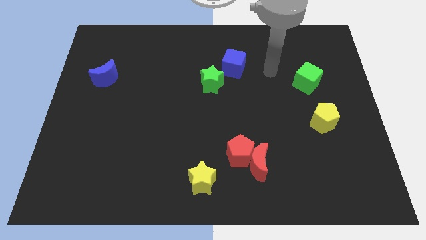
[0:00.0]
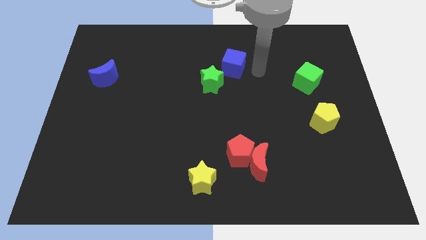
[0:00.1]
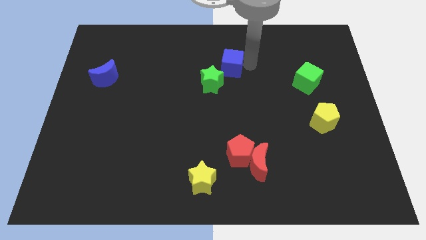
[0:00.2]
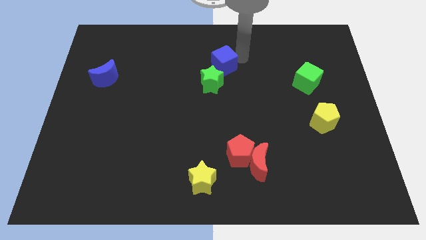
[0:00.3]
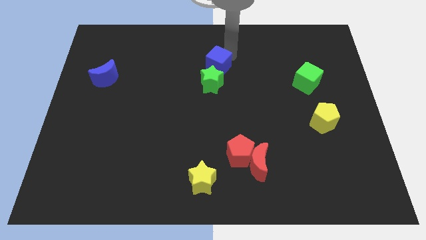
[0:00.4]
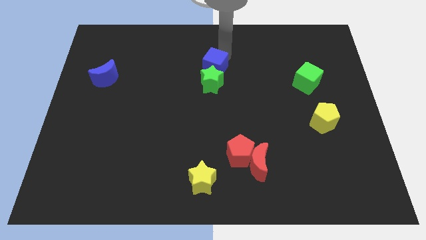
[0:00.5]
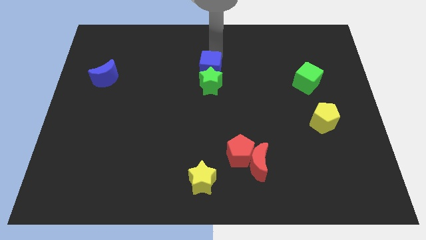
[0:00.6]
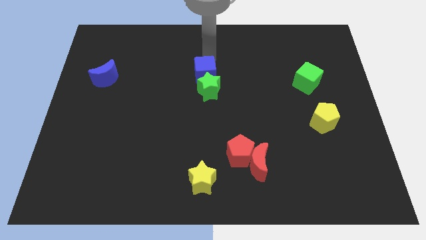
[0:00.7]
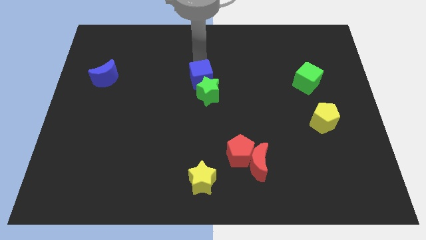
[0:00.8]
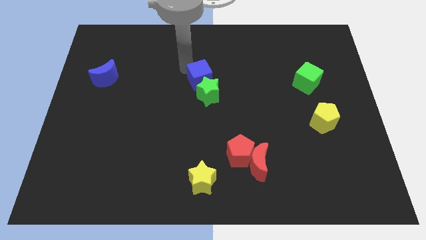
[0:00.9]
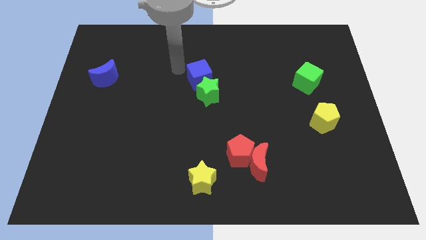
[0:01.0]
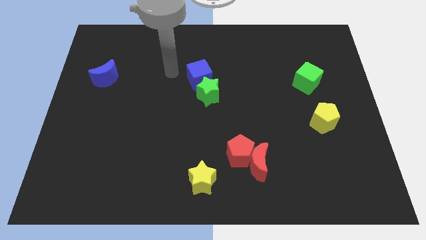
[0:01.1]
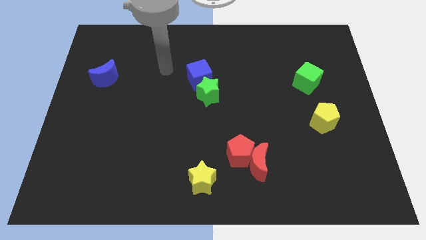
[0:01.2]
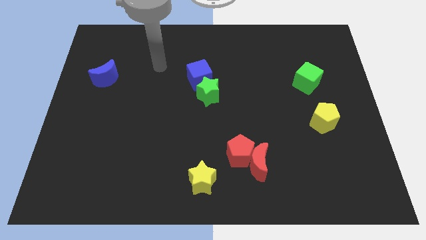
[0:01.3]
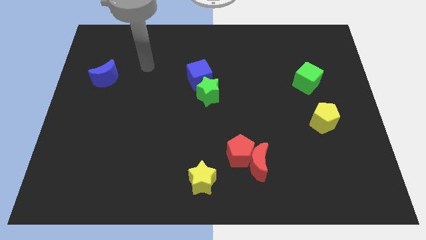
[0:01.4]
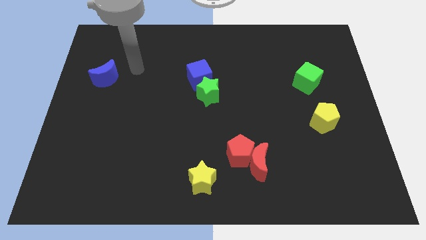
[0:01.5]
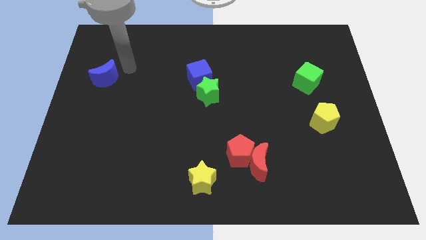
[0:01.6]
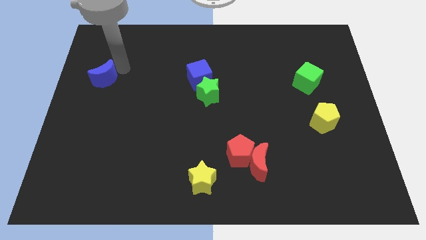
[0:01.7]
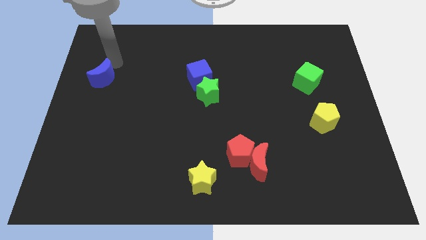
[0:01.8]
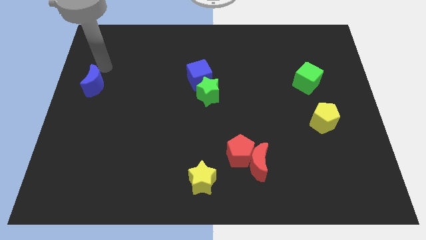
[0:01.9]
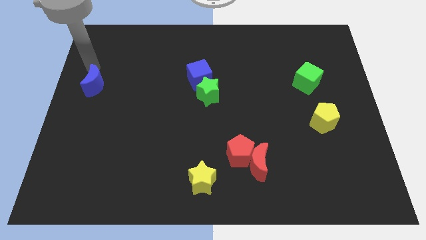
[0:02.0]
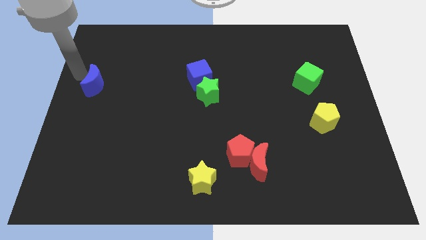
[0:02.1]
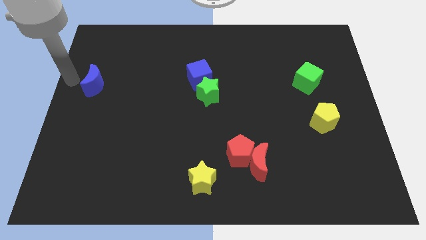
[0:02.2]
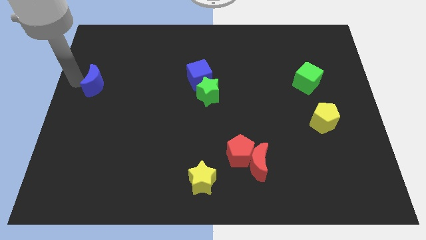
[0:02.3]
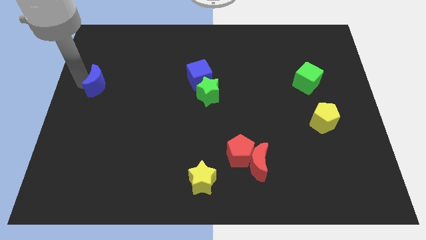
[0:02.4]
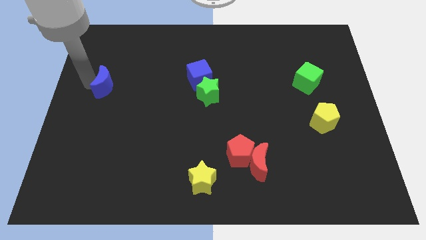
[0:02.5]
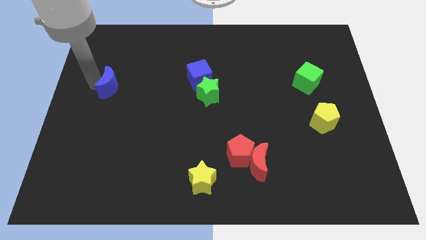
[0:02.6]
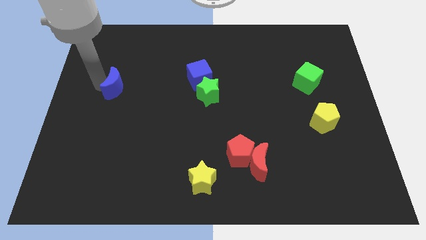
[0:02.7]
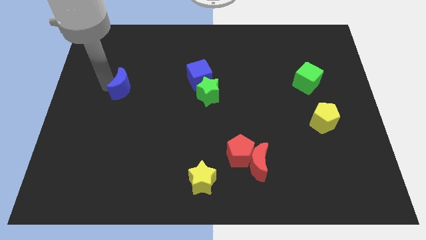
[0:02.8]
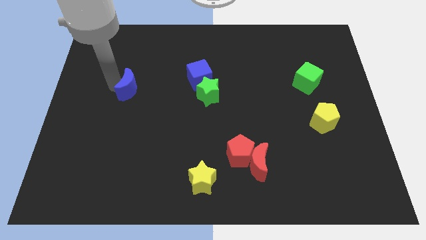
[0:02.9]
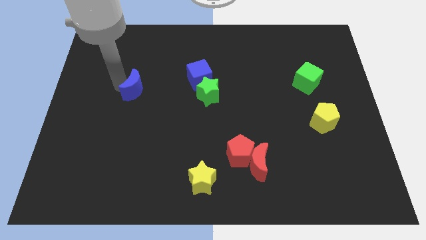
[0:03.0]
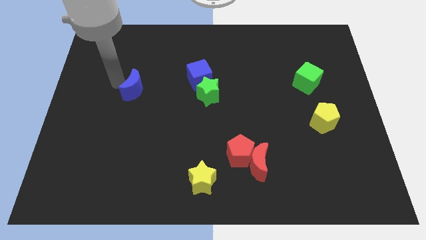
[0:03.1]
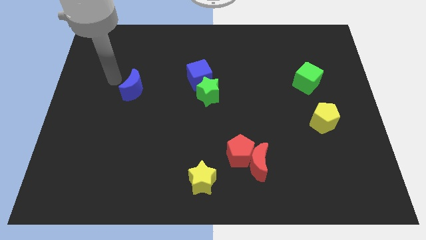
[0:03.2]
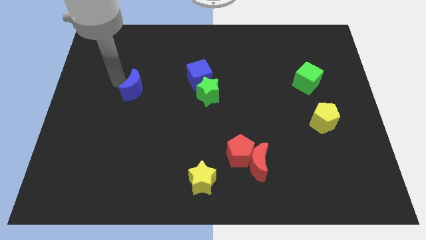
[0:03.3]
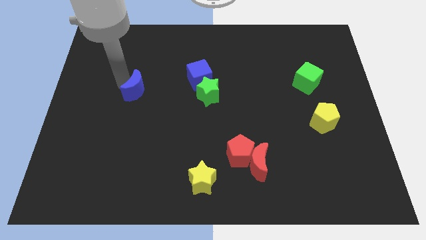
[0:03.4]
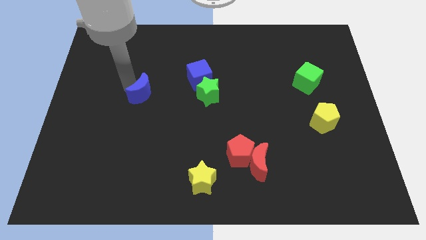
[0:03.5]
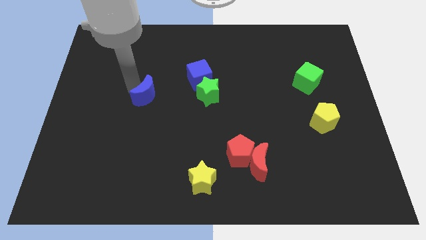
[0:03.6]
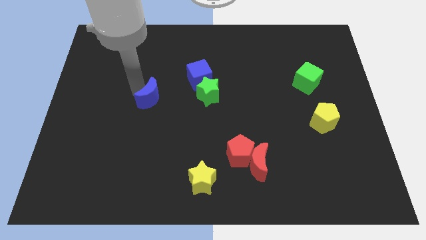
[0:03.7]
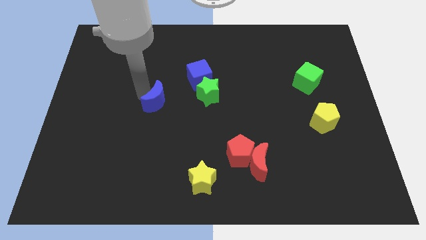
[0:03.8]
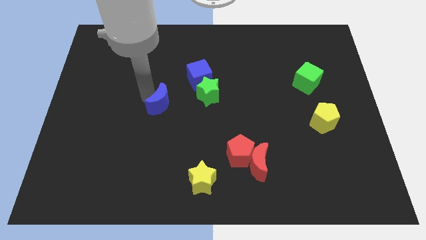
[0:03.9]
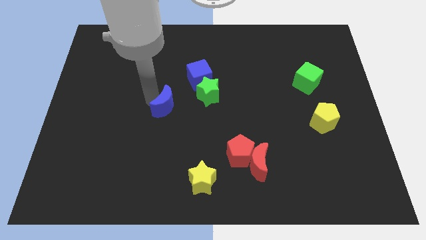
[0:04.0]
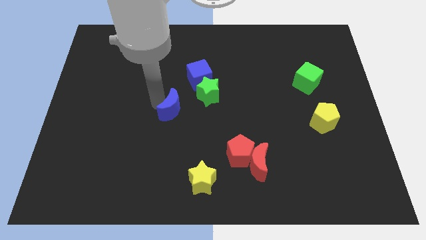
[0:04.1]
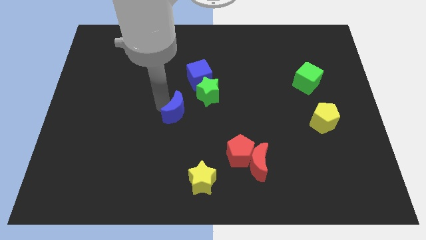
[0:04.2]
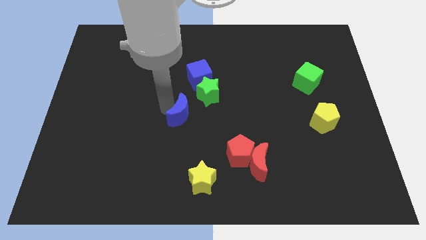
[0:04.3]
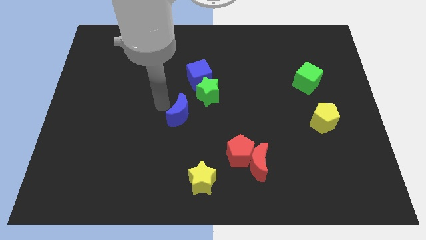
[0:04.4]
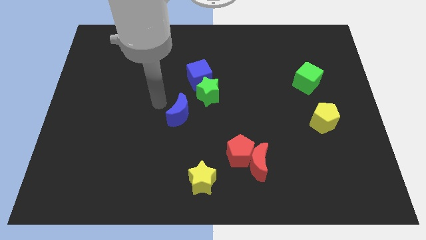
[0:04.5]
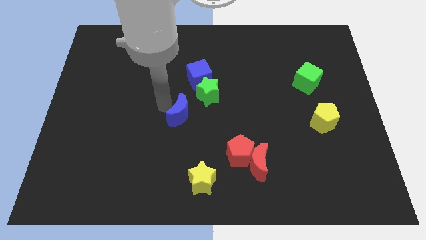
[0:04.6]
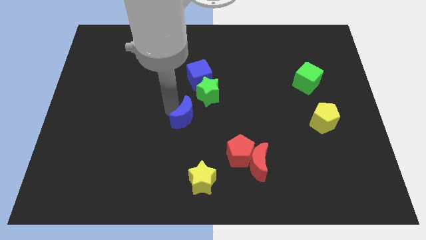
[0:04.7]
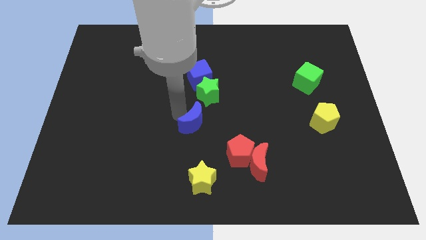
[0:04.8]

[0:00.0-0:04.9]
put the blue moon to the top left of the red pentagon

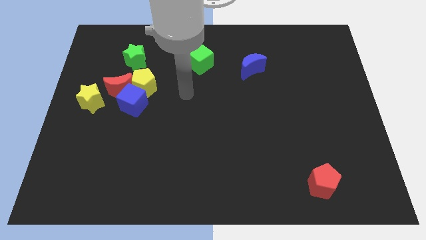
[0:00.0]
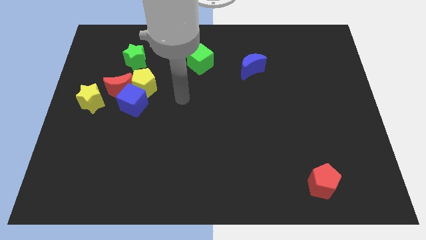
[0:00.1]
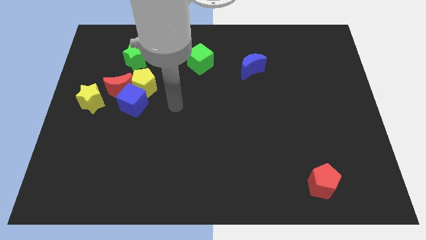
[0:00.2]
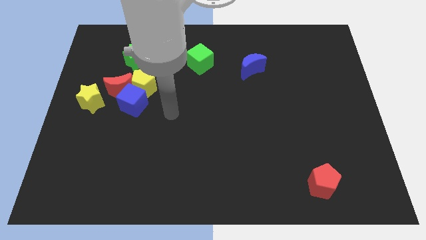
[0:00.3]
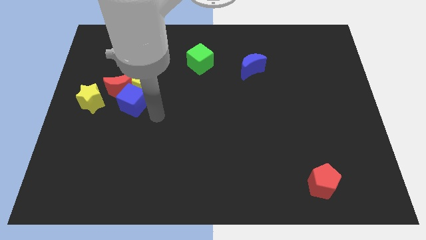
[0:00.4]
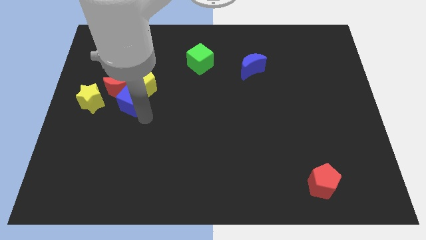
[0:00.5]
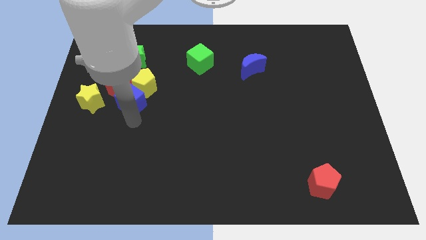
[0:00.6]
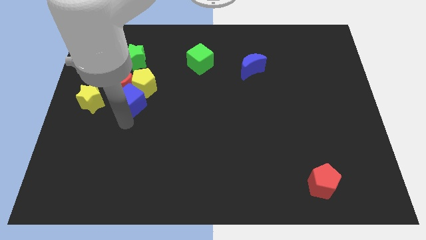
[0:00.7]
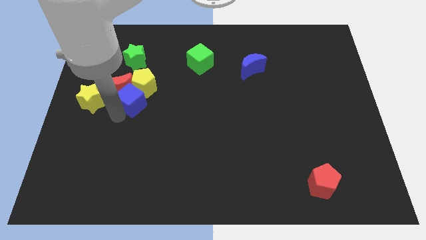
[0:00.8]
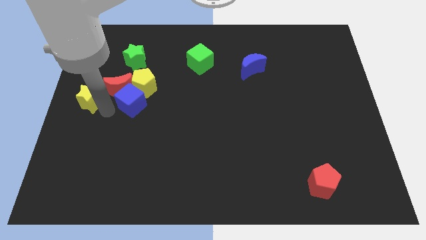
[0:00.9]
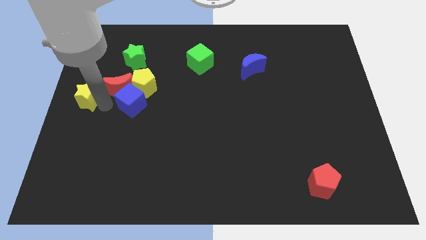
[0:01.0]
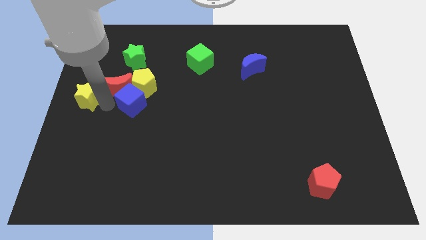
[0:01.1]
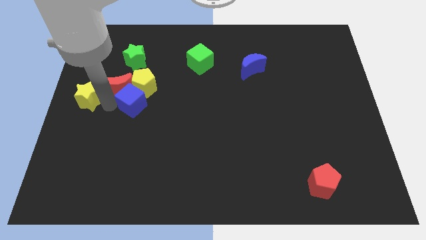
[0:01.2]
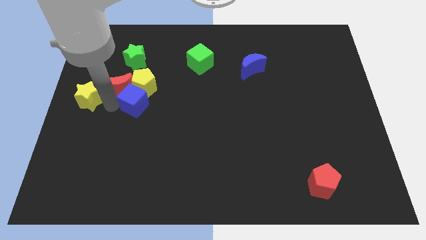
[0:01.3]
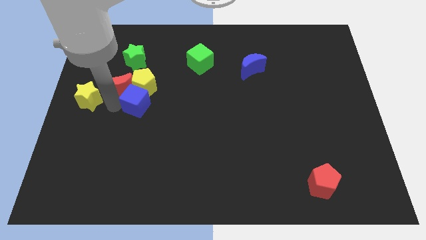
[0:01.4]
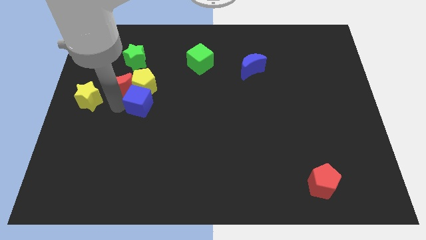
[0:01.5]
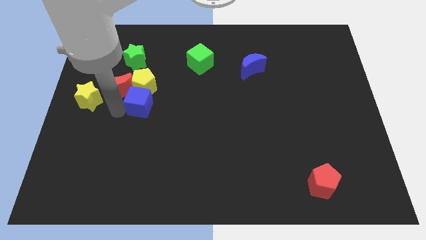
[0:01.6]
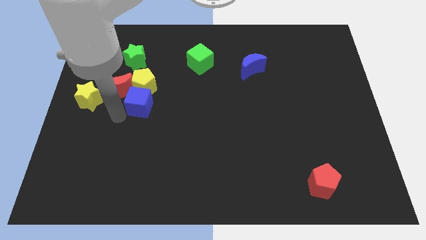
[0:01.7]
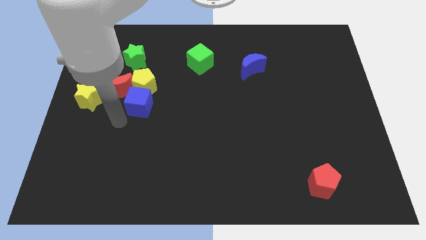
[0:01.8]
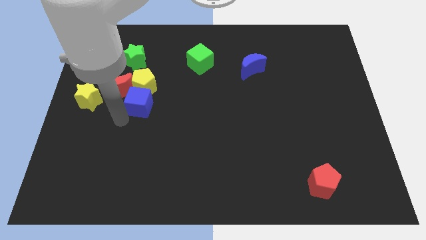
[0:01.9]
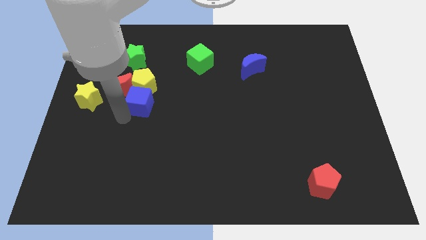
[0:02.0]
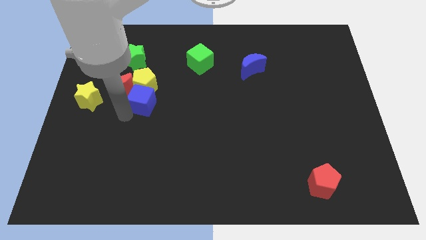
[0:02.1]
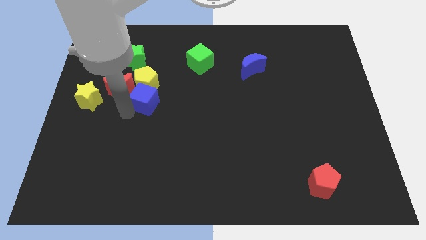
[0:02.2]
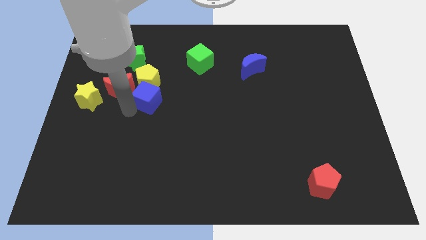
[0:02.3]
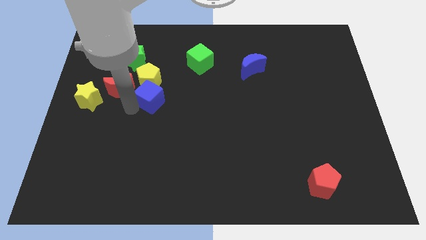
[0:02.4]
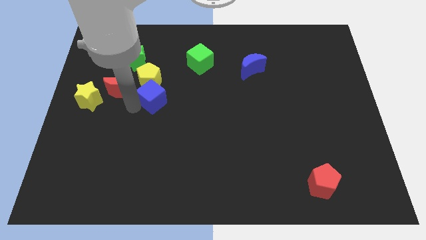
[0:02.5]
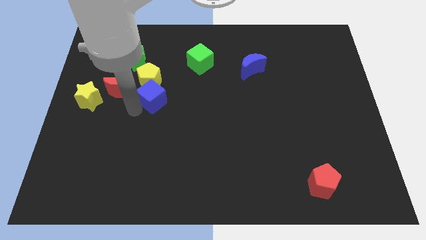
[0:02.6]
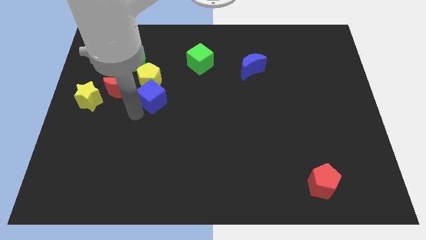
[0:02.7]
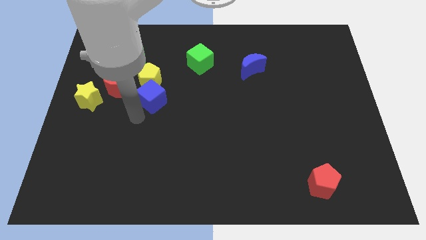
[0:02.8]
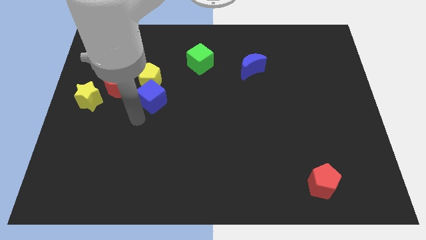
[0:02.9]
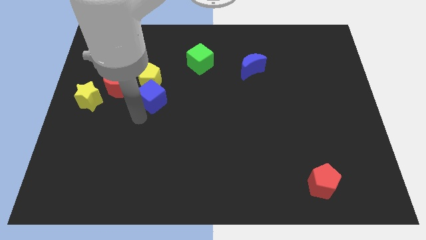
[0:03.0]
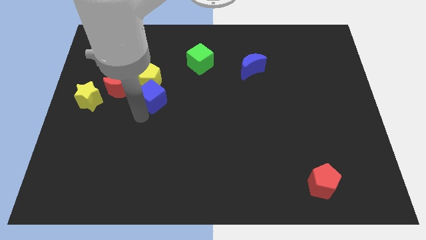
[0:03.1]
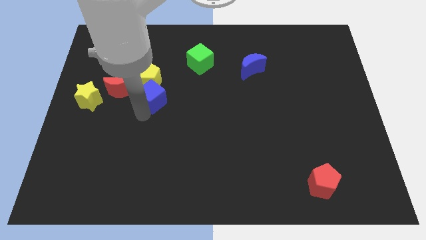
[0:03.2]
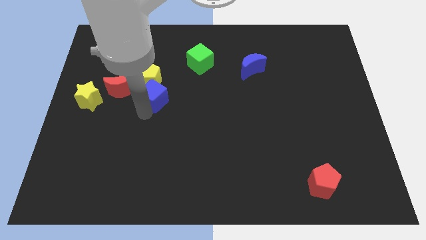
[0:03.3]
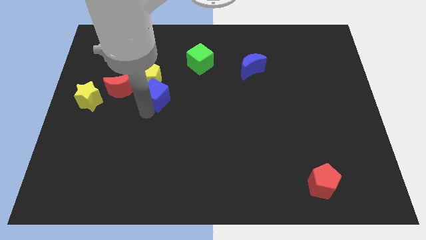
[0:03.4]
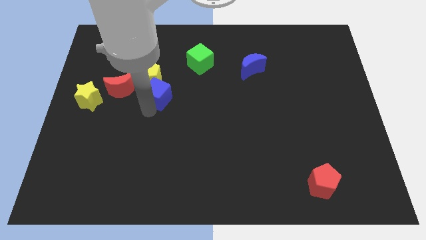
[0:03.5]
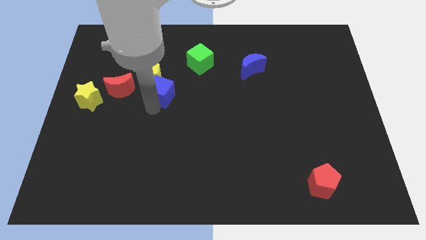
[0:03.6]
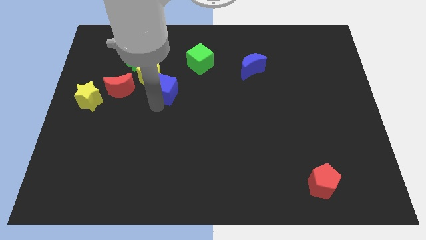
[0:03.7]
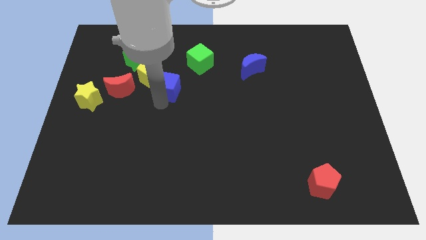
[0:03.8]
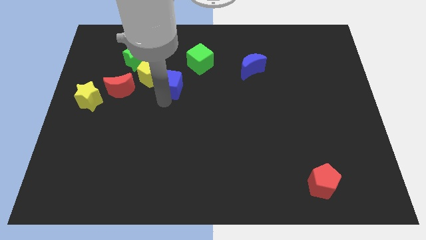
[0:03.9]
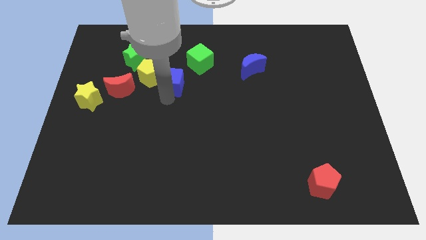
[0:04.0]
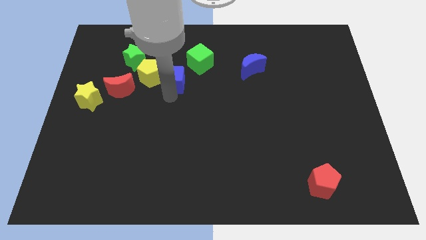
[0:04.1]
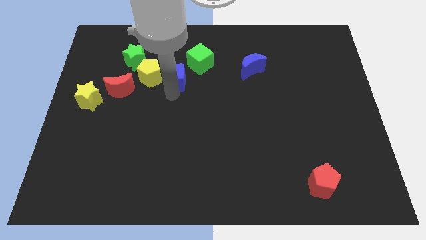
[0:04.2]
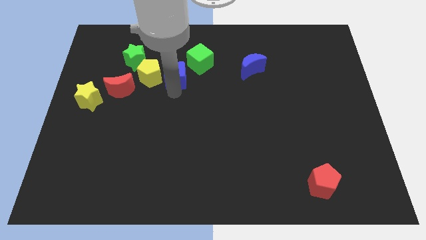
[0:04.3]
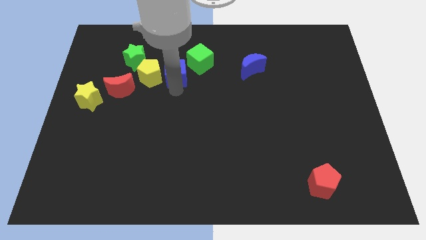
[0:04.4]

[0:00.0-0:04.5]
put the blue cube diagonally up and to the right of the yellow pentagon
